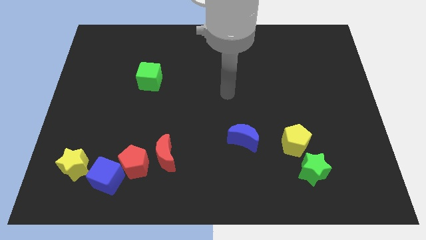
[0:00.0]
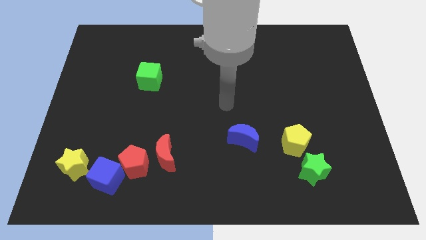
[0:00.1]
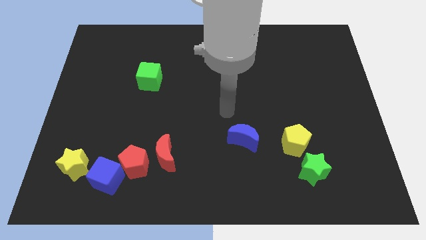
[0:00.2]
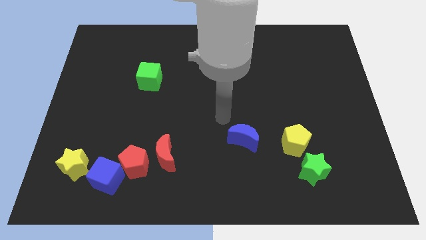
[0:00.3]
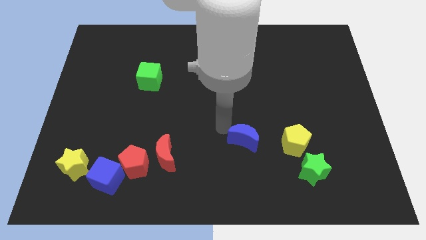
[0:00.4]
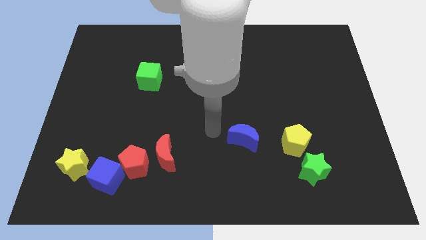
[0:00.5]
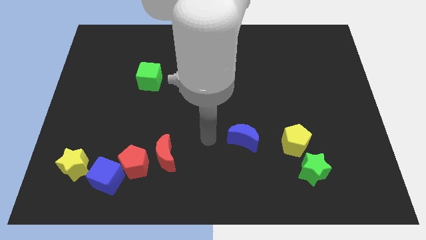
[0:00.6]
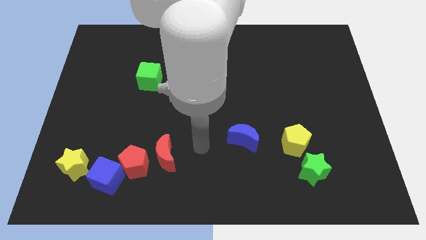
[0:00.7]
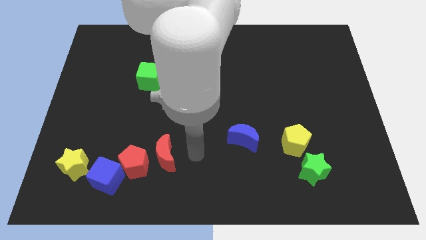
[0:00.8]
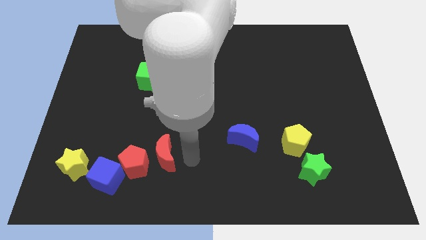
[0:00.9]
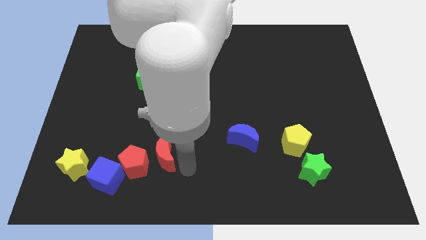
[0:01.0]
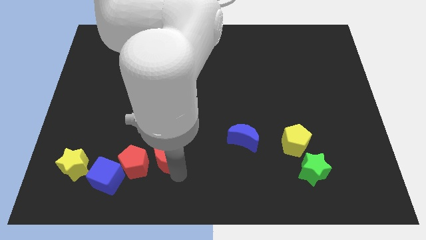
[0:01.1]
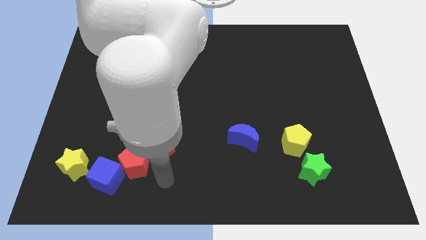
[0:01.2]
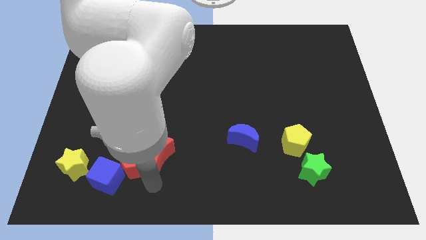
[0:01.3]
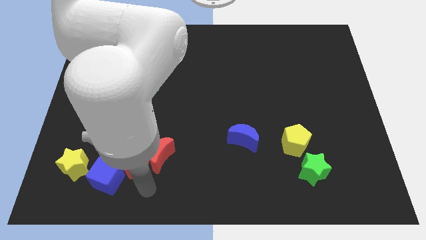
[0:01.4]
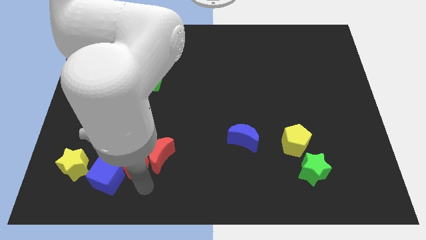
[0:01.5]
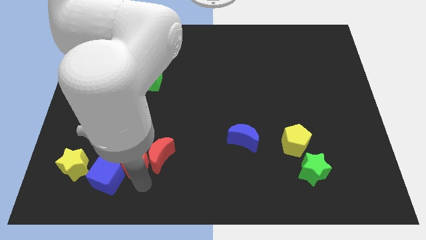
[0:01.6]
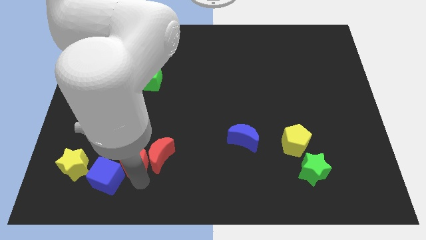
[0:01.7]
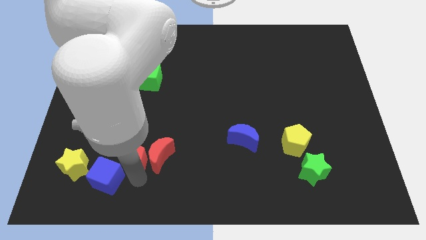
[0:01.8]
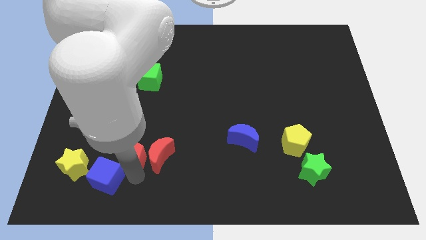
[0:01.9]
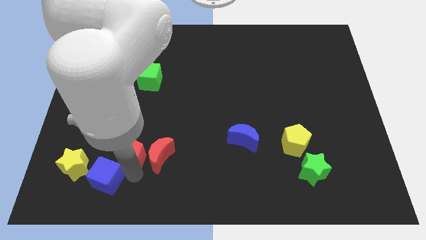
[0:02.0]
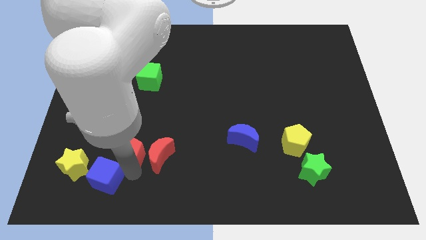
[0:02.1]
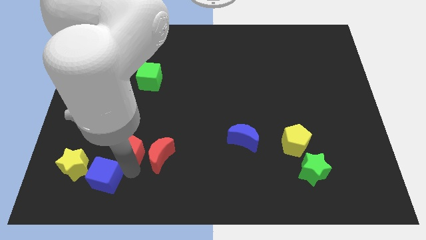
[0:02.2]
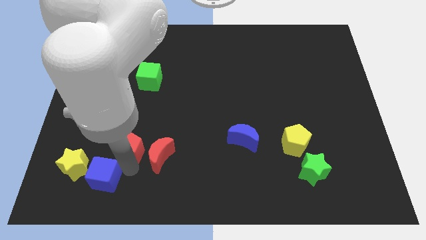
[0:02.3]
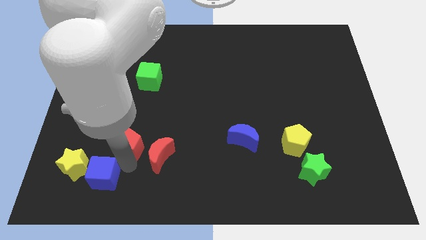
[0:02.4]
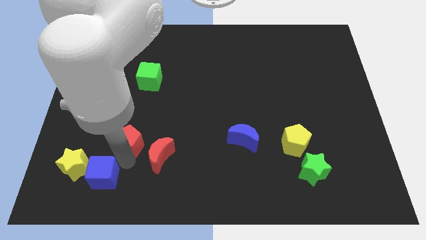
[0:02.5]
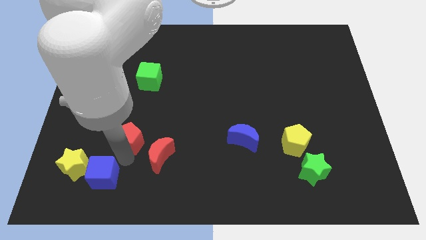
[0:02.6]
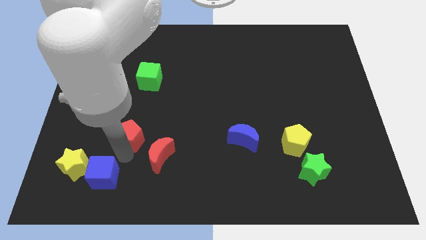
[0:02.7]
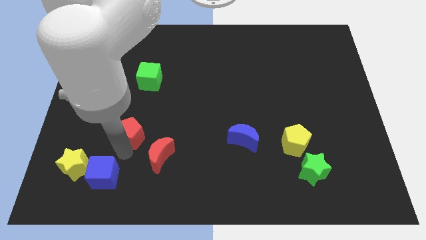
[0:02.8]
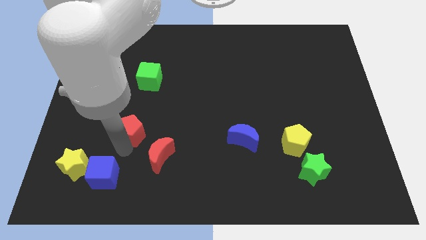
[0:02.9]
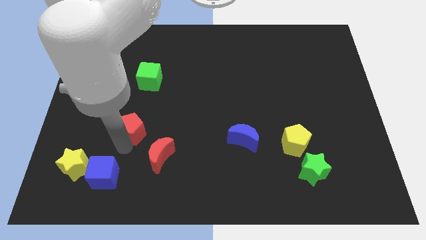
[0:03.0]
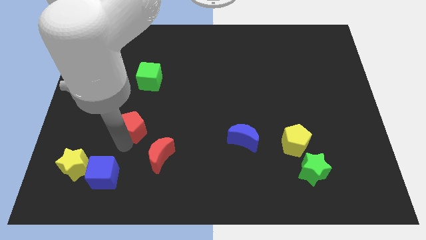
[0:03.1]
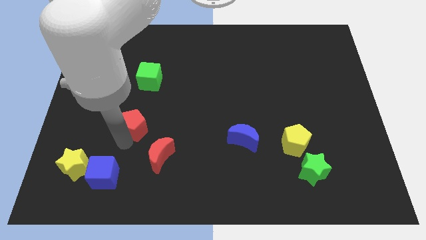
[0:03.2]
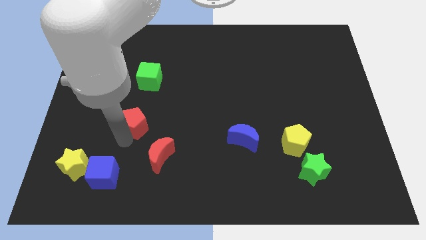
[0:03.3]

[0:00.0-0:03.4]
pull the red pentagon apart from the blue cube and red moon

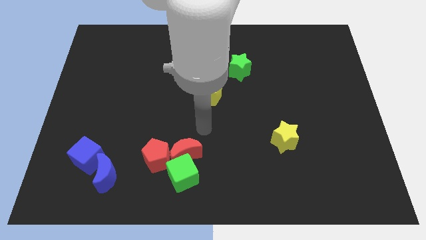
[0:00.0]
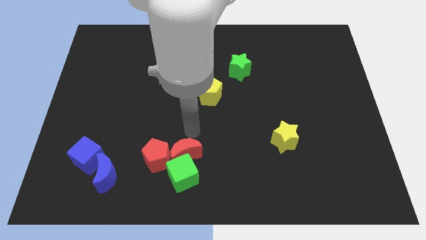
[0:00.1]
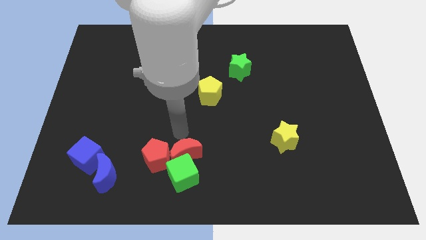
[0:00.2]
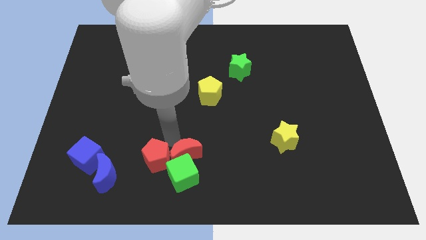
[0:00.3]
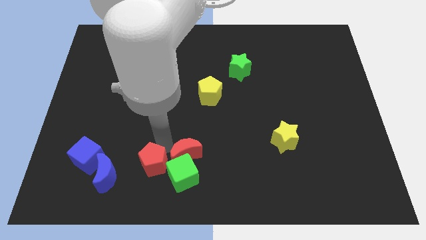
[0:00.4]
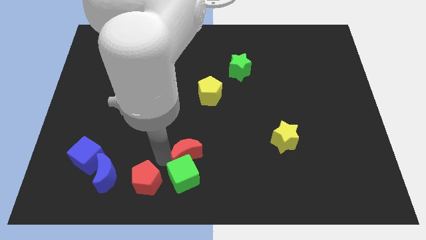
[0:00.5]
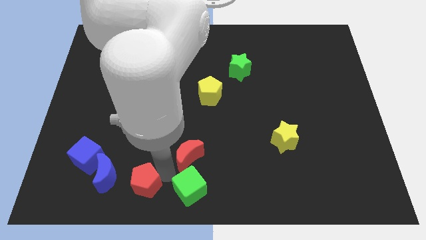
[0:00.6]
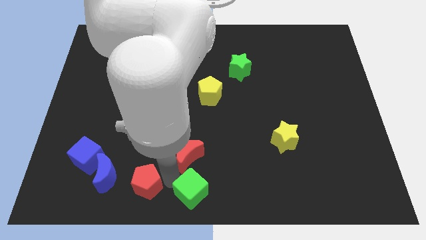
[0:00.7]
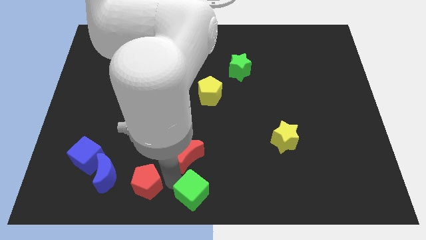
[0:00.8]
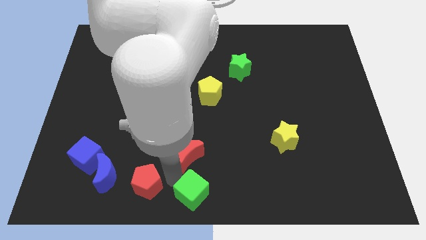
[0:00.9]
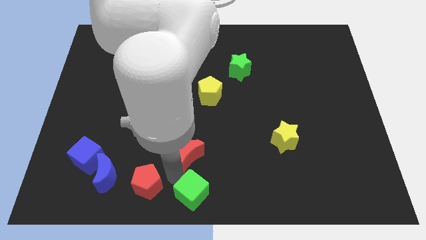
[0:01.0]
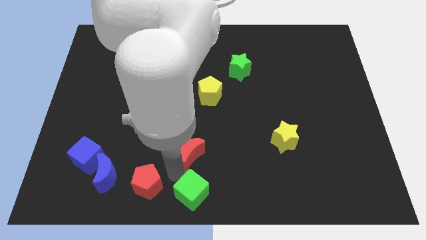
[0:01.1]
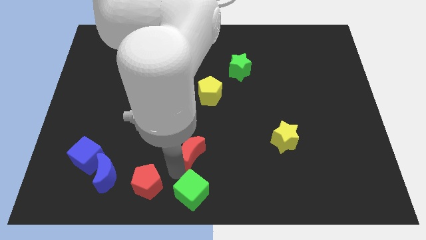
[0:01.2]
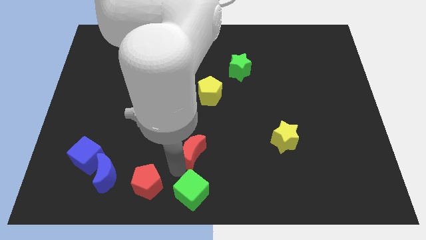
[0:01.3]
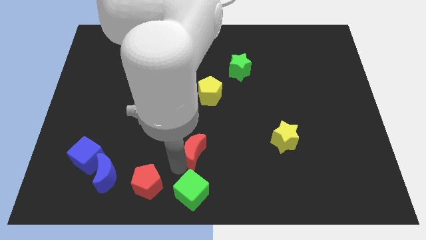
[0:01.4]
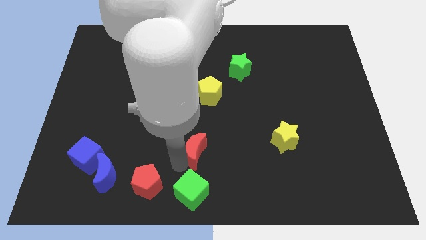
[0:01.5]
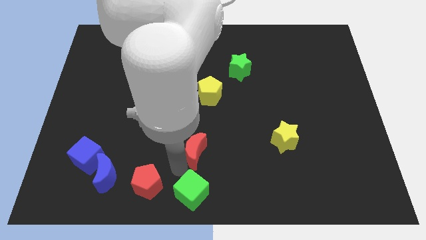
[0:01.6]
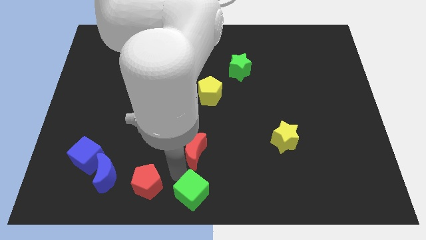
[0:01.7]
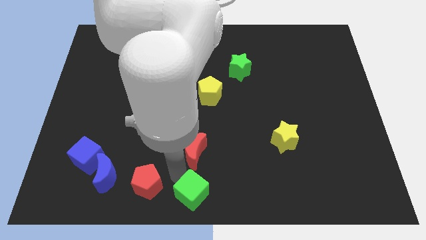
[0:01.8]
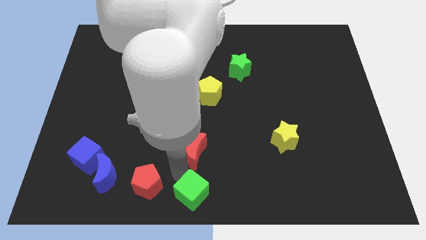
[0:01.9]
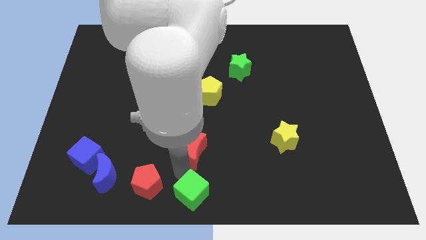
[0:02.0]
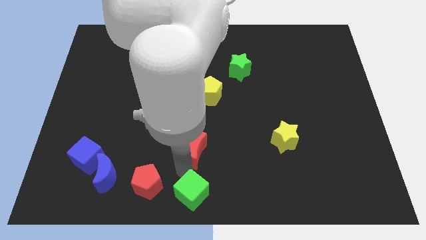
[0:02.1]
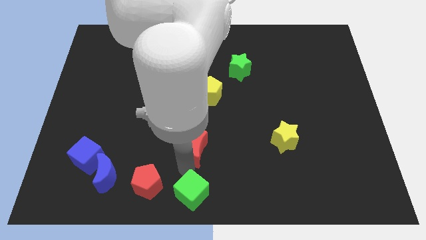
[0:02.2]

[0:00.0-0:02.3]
separate the red moon from the green cube and red pentagon

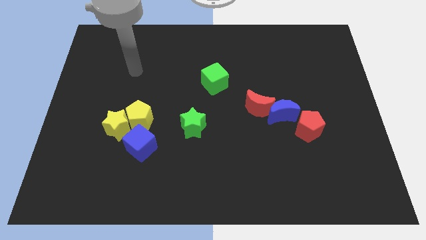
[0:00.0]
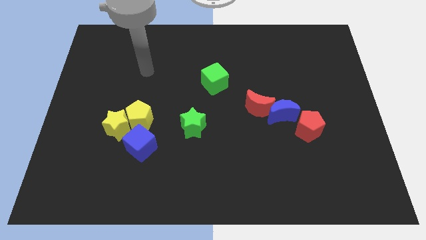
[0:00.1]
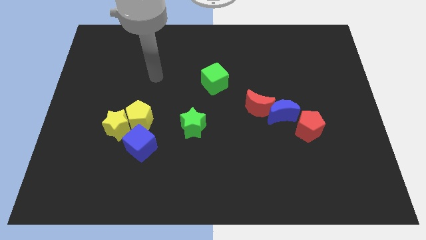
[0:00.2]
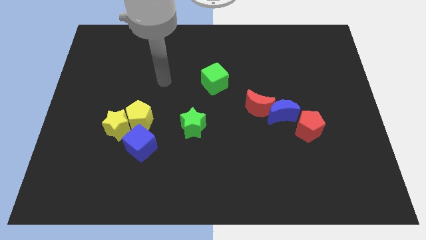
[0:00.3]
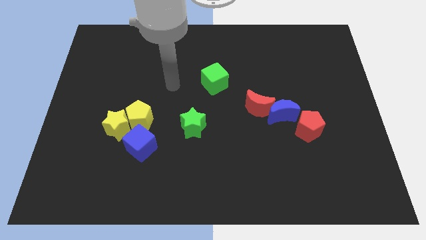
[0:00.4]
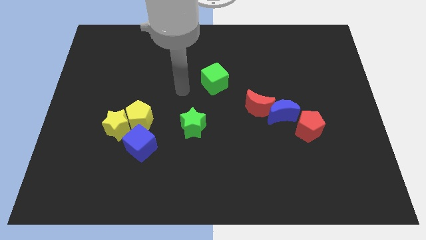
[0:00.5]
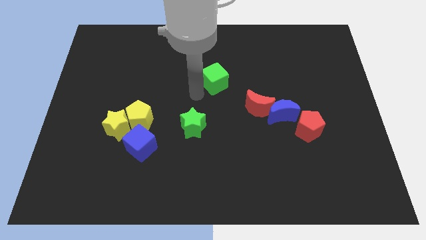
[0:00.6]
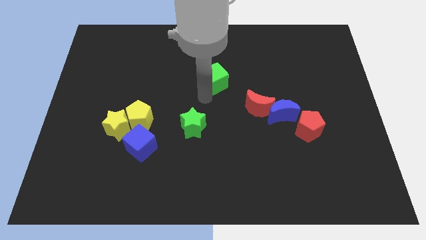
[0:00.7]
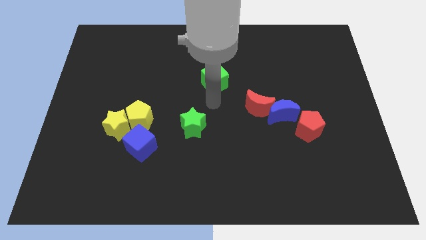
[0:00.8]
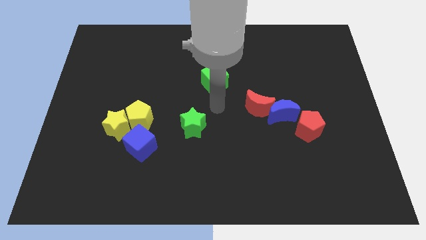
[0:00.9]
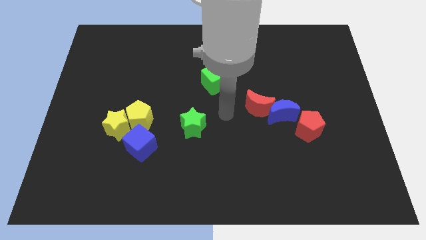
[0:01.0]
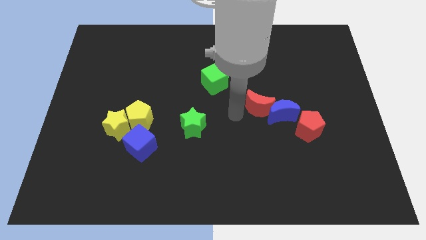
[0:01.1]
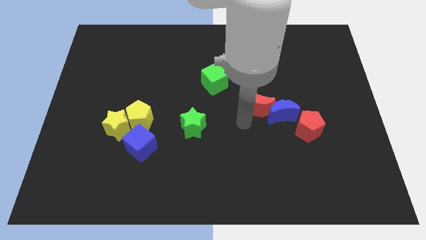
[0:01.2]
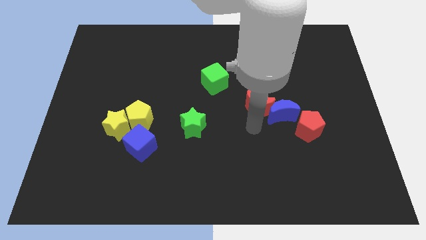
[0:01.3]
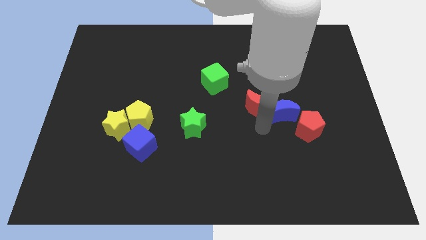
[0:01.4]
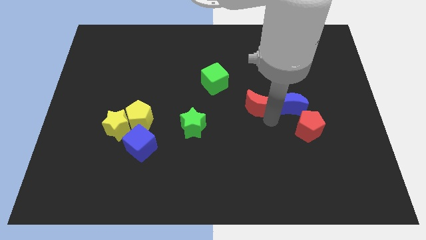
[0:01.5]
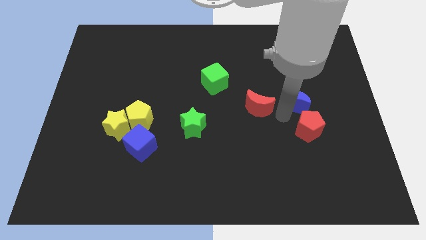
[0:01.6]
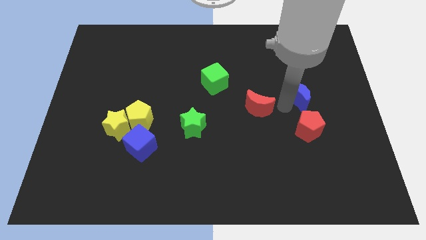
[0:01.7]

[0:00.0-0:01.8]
move the red moon away from the blue moon

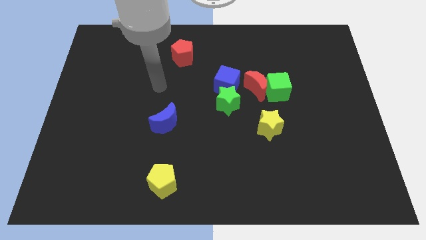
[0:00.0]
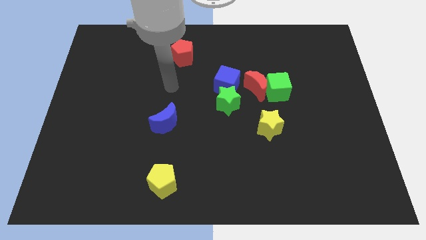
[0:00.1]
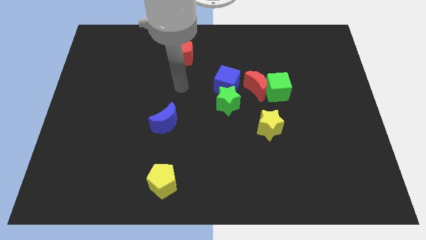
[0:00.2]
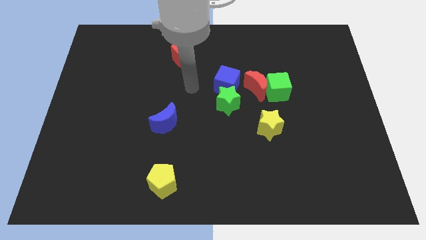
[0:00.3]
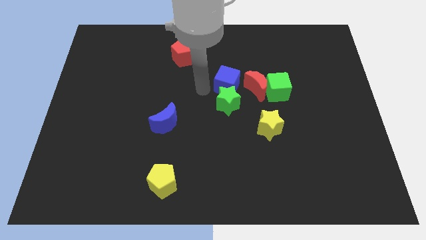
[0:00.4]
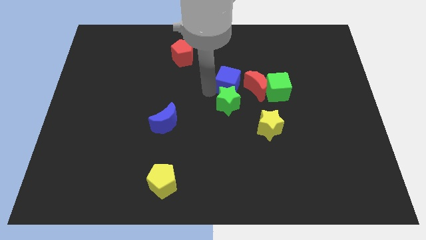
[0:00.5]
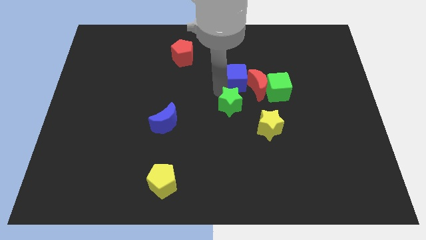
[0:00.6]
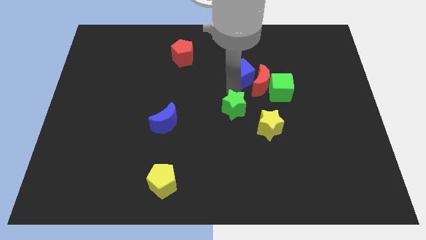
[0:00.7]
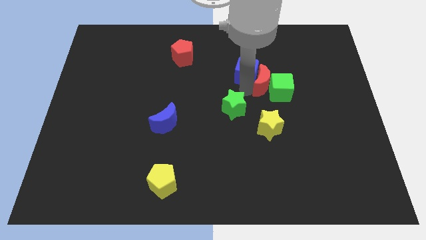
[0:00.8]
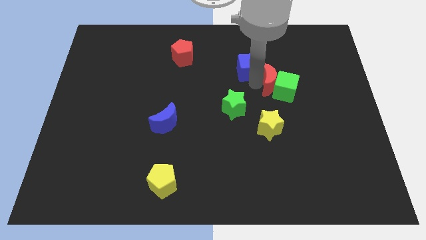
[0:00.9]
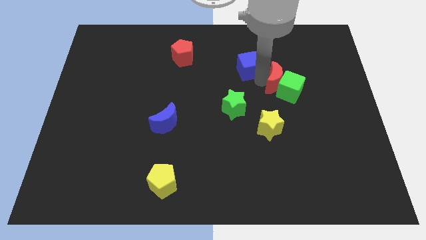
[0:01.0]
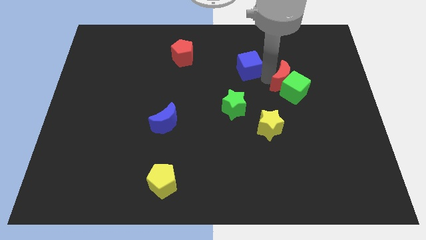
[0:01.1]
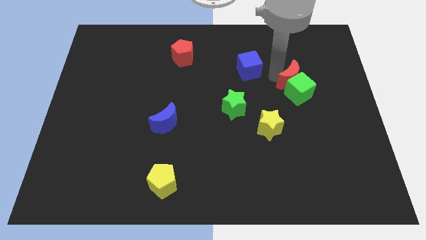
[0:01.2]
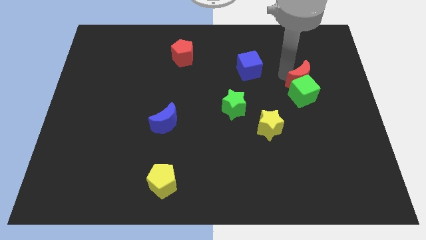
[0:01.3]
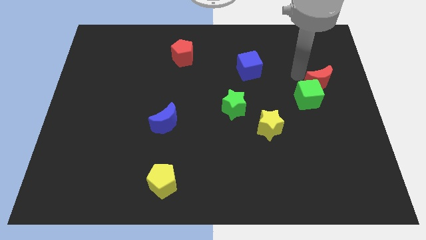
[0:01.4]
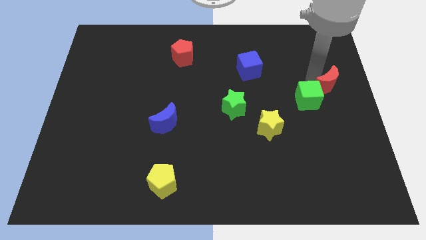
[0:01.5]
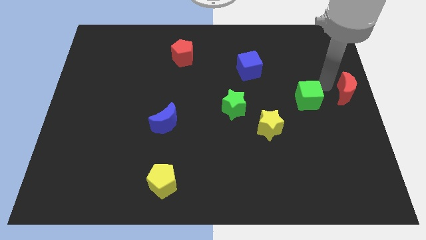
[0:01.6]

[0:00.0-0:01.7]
separate the green cube from the red moon

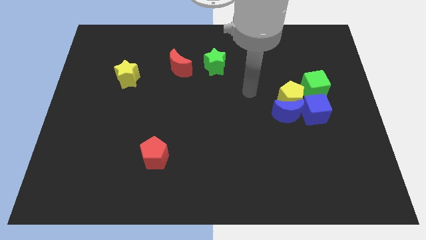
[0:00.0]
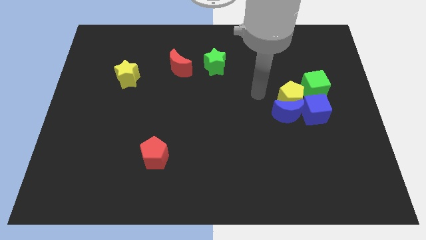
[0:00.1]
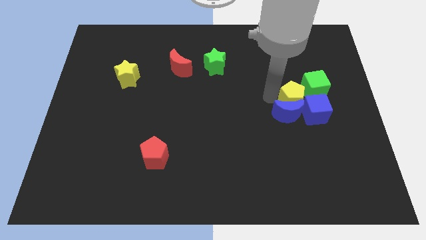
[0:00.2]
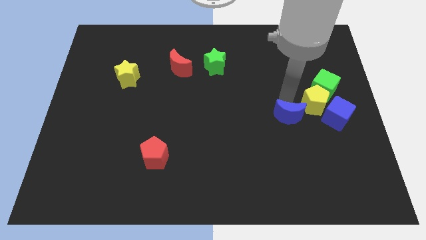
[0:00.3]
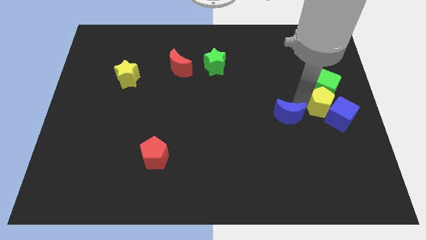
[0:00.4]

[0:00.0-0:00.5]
move the blue moon away from the yellow pentagon and blue cube
